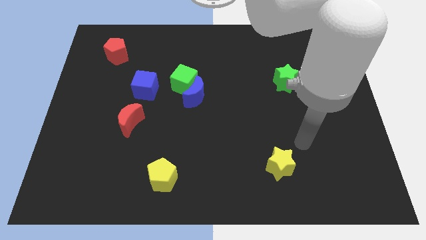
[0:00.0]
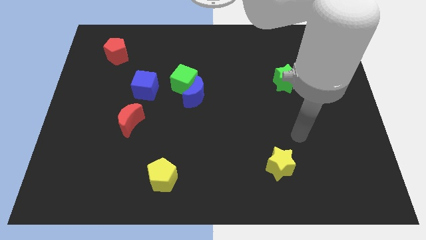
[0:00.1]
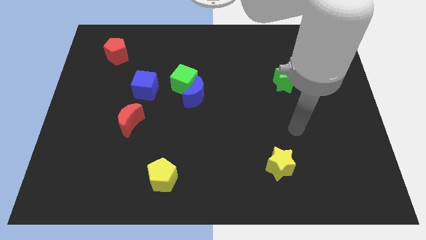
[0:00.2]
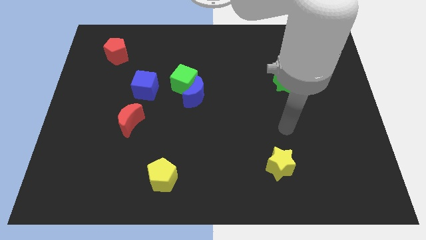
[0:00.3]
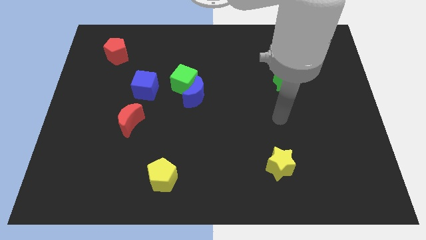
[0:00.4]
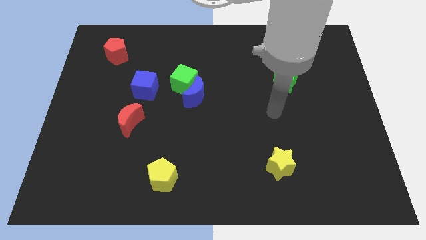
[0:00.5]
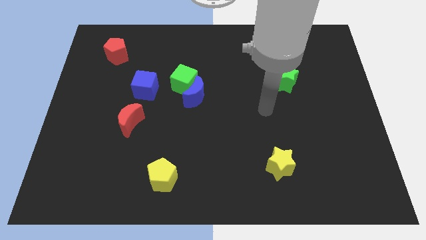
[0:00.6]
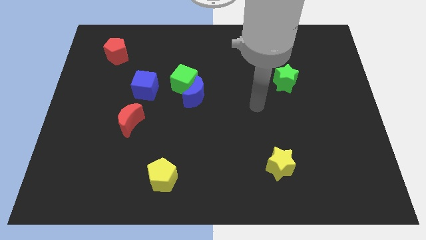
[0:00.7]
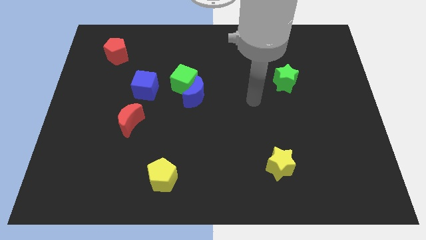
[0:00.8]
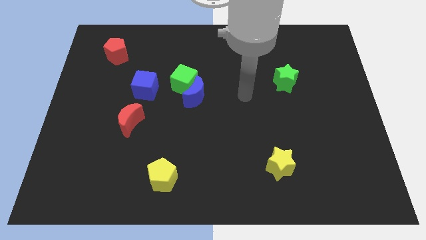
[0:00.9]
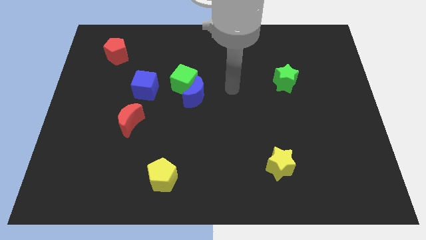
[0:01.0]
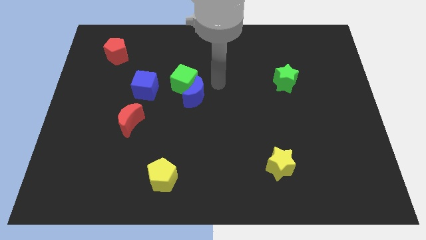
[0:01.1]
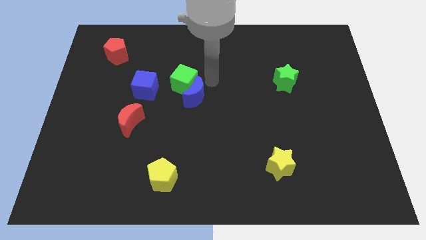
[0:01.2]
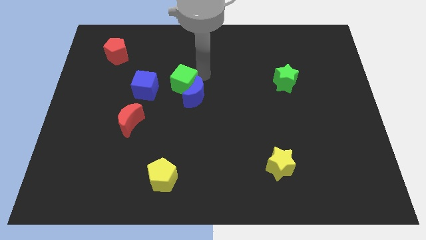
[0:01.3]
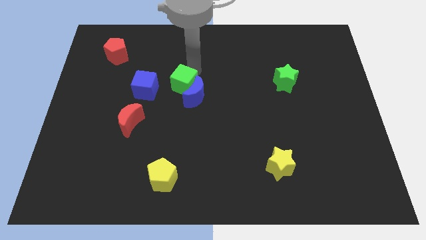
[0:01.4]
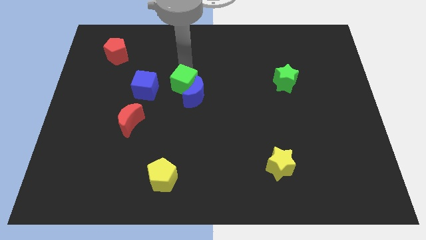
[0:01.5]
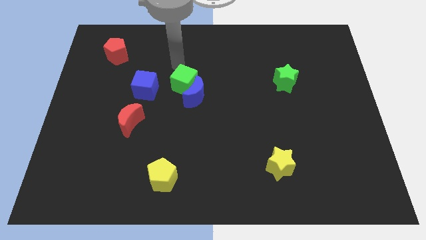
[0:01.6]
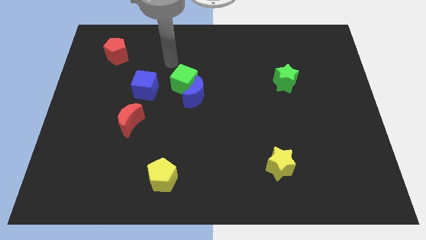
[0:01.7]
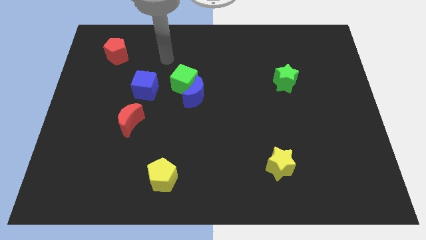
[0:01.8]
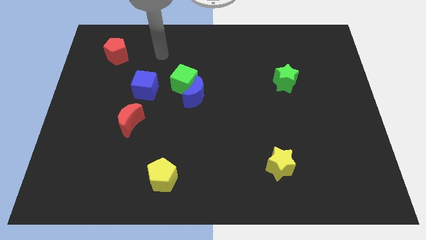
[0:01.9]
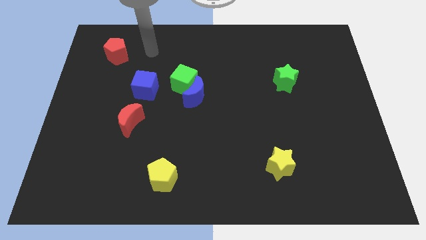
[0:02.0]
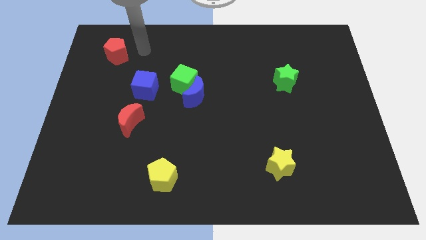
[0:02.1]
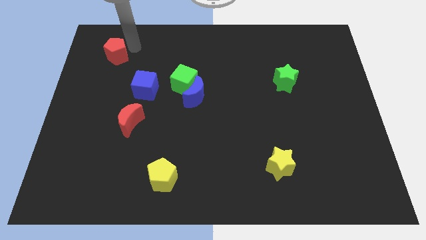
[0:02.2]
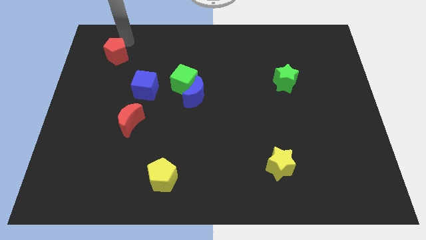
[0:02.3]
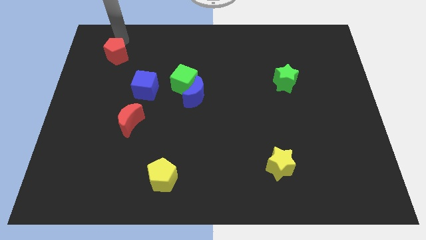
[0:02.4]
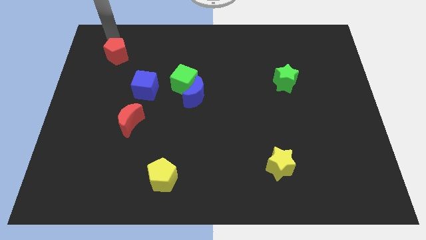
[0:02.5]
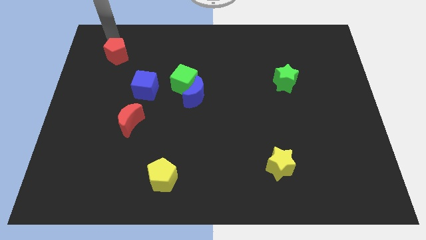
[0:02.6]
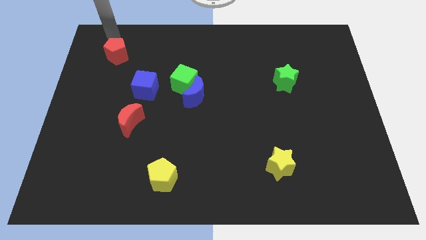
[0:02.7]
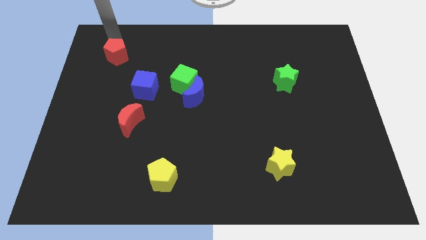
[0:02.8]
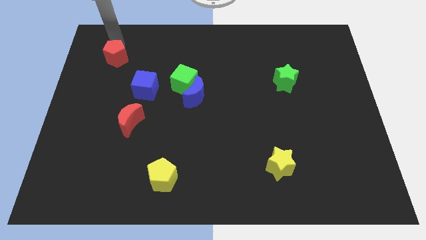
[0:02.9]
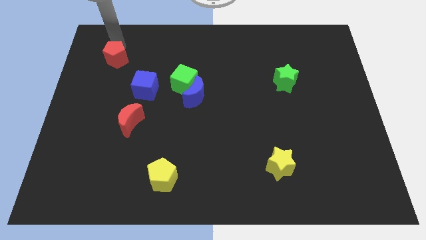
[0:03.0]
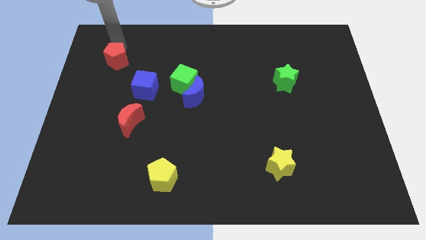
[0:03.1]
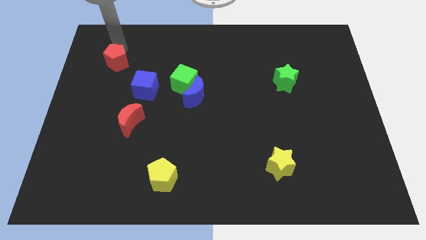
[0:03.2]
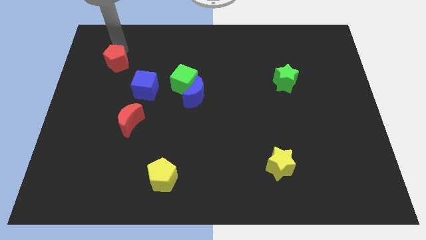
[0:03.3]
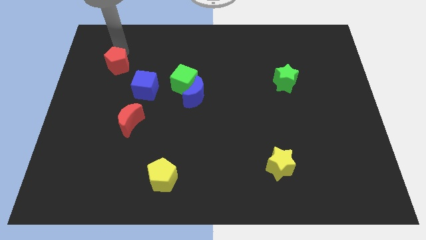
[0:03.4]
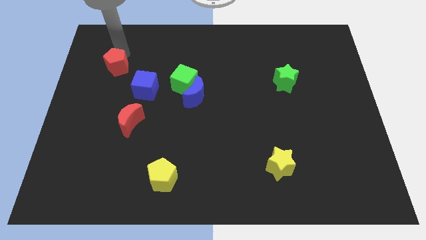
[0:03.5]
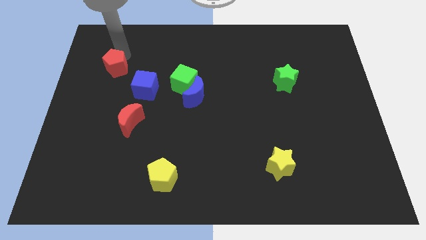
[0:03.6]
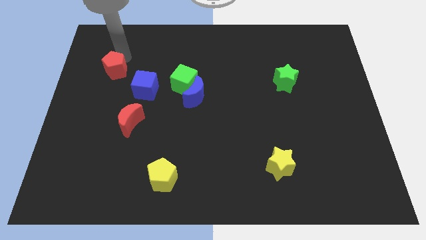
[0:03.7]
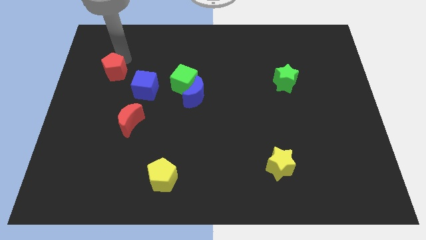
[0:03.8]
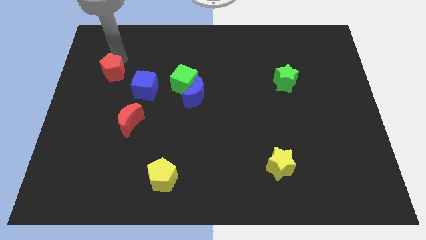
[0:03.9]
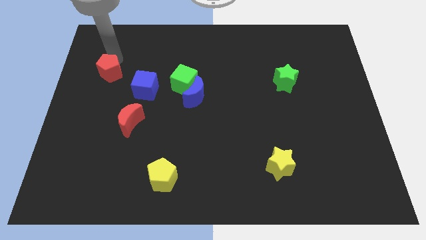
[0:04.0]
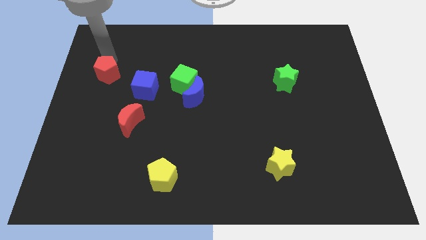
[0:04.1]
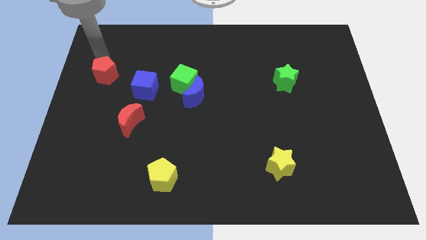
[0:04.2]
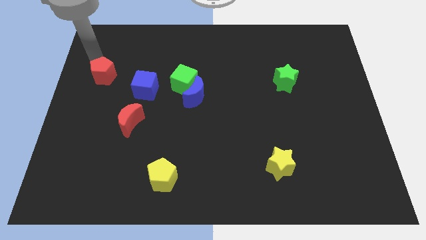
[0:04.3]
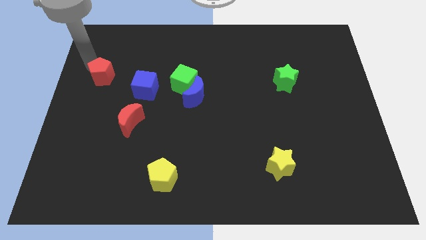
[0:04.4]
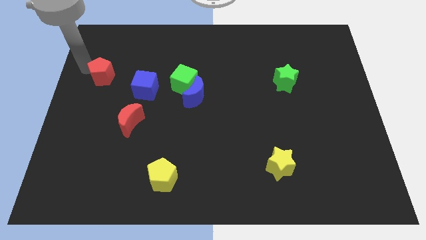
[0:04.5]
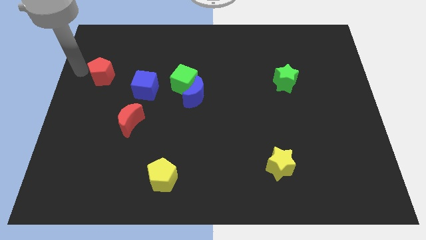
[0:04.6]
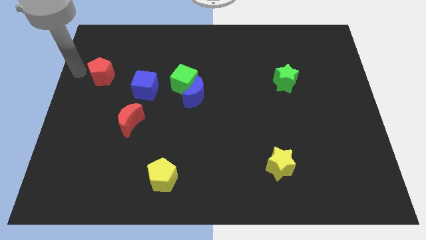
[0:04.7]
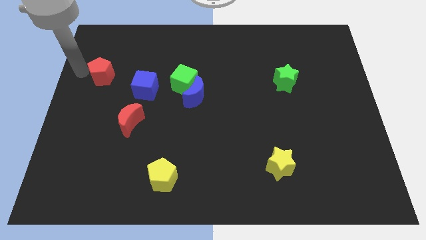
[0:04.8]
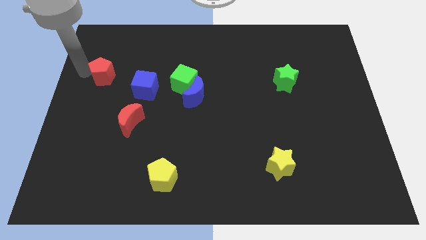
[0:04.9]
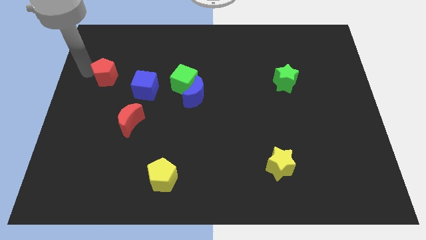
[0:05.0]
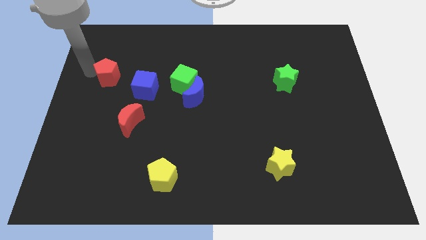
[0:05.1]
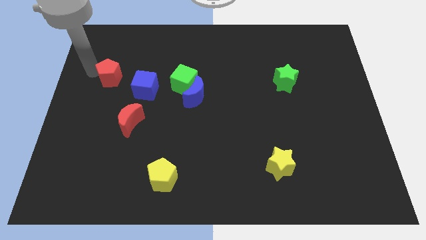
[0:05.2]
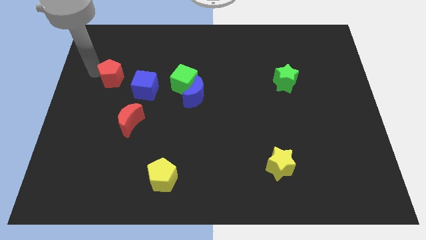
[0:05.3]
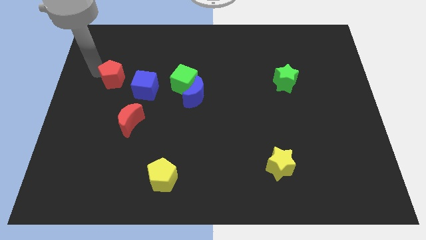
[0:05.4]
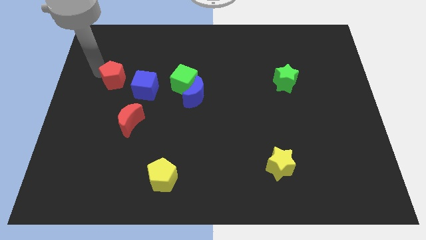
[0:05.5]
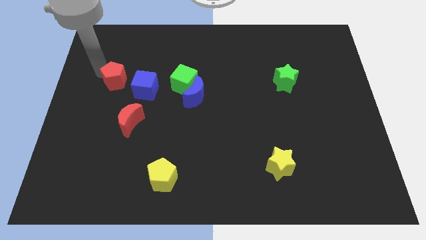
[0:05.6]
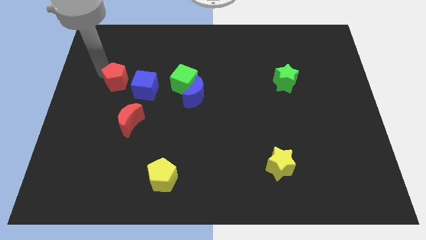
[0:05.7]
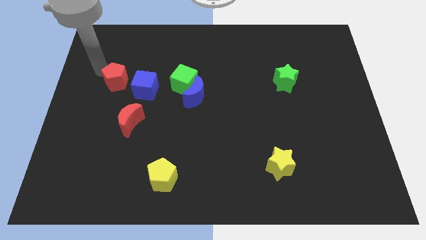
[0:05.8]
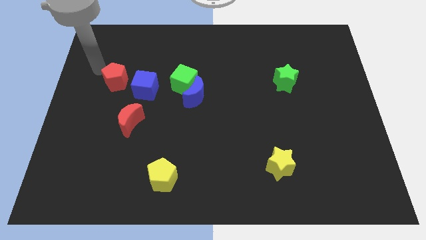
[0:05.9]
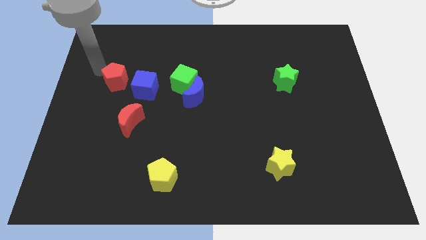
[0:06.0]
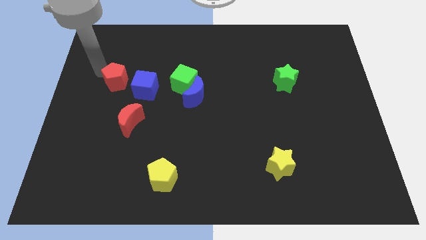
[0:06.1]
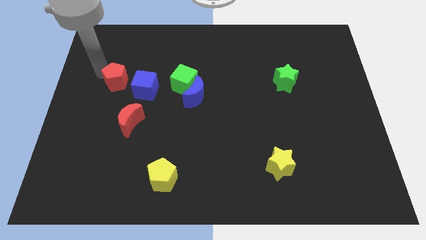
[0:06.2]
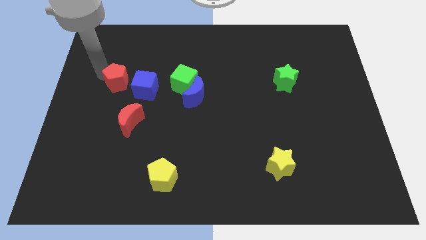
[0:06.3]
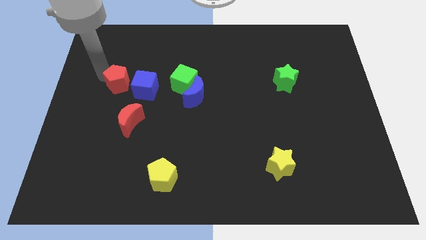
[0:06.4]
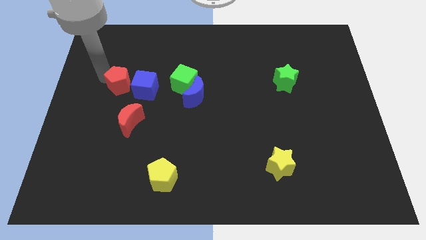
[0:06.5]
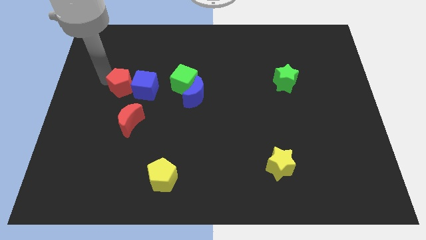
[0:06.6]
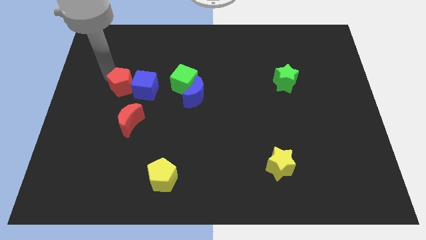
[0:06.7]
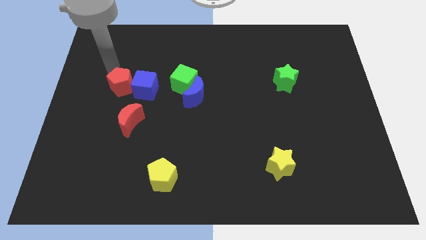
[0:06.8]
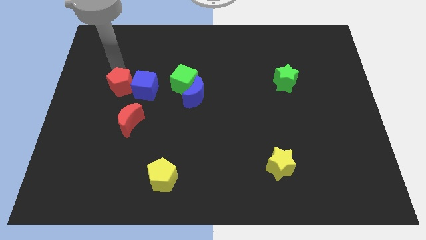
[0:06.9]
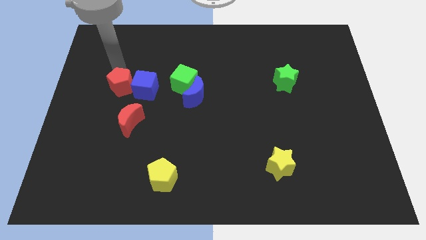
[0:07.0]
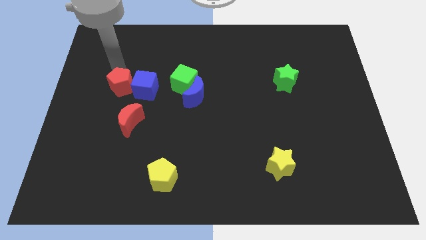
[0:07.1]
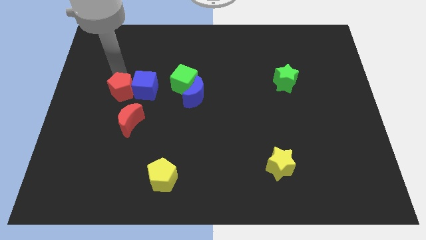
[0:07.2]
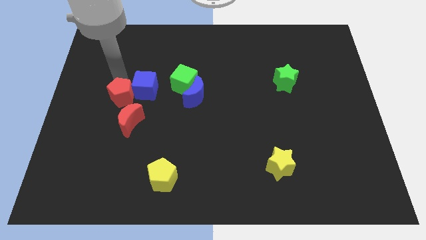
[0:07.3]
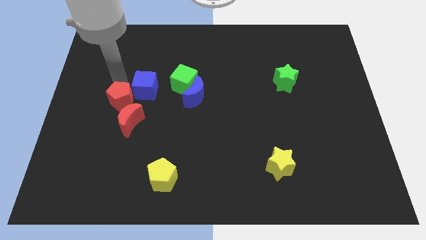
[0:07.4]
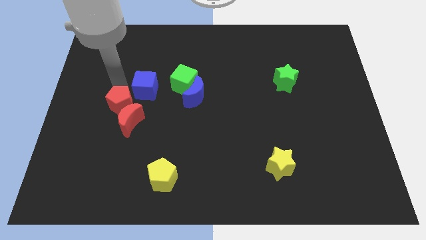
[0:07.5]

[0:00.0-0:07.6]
slide the red pentagon next to the red moon
